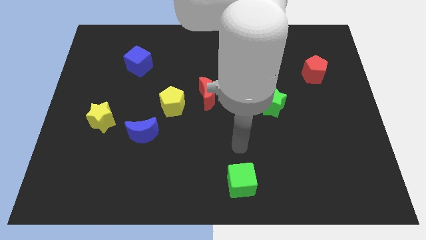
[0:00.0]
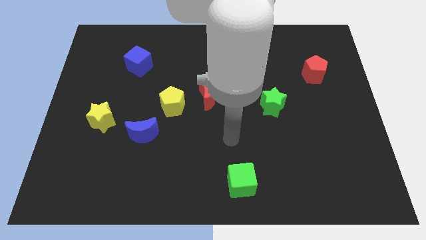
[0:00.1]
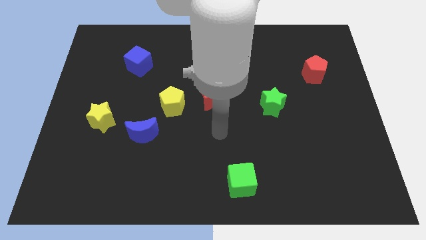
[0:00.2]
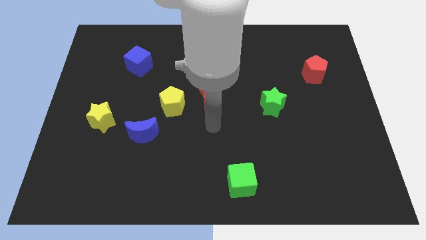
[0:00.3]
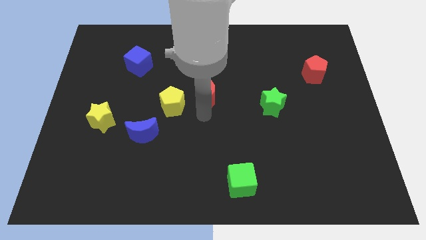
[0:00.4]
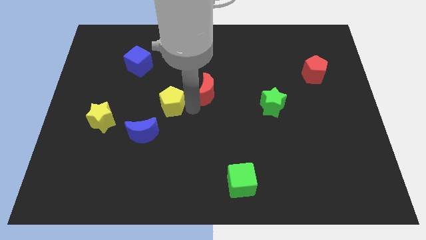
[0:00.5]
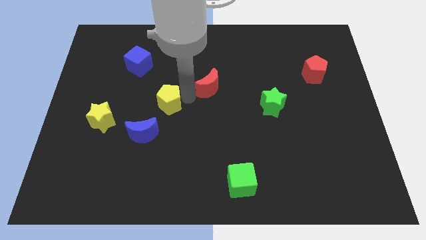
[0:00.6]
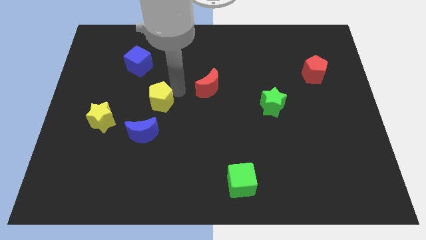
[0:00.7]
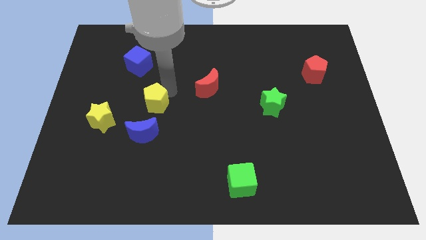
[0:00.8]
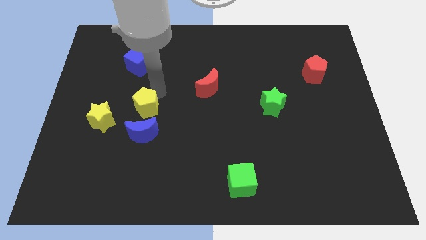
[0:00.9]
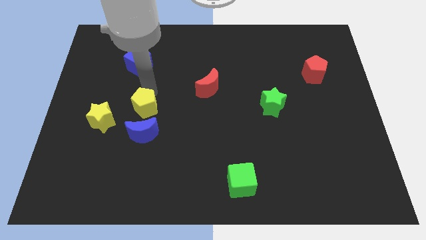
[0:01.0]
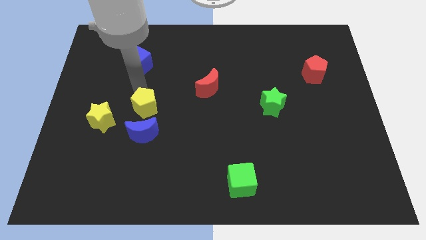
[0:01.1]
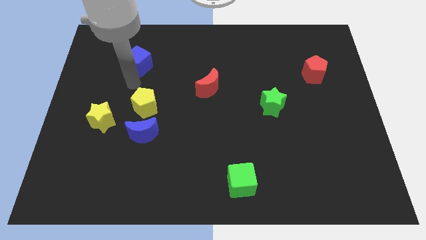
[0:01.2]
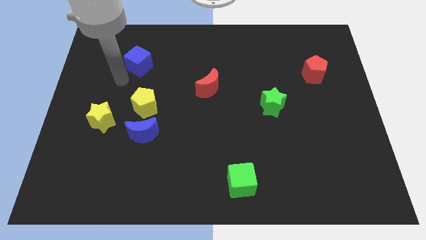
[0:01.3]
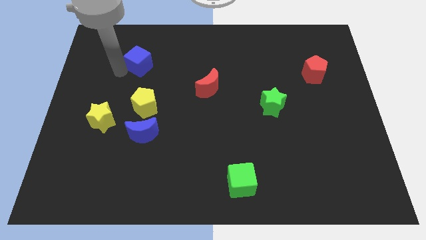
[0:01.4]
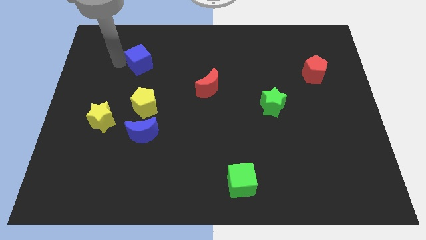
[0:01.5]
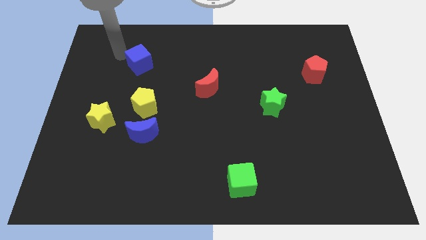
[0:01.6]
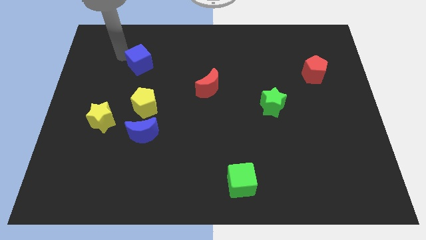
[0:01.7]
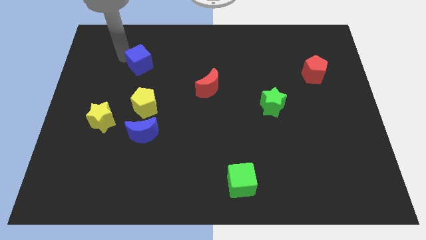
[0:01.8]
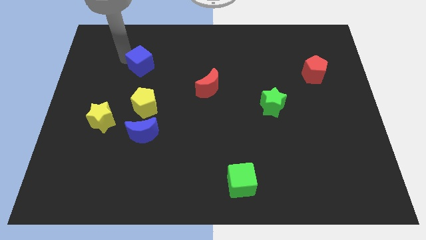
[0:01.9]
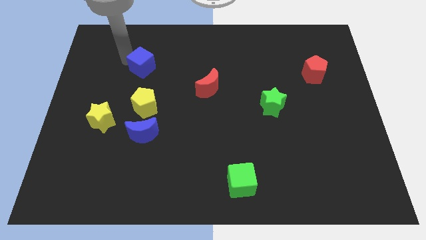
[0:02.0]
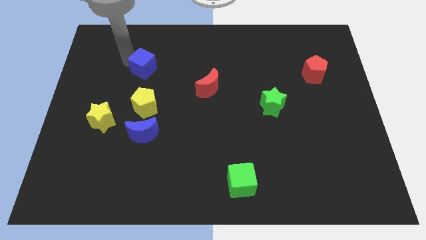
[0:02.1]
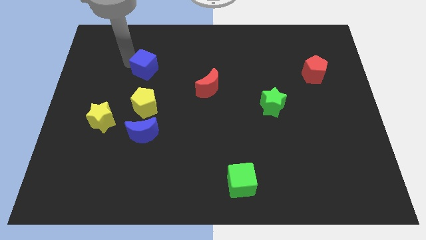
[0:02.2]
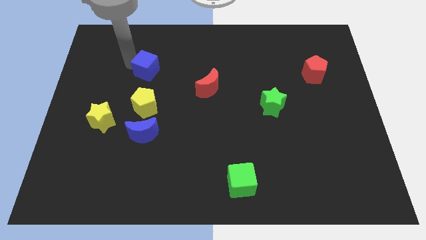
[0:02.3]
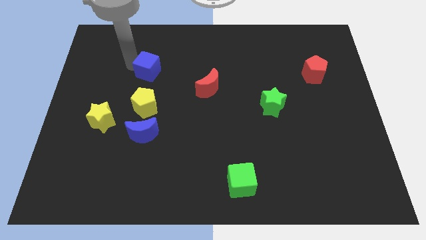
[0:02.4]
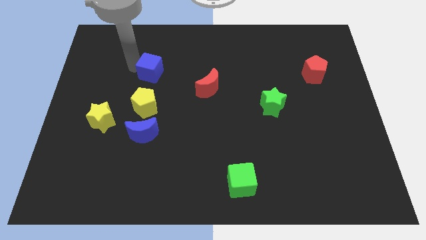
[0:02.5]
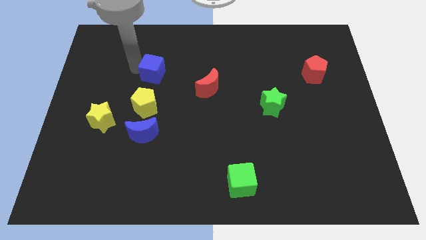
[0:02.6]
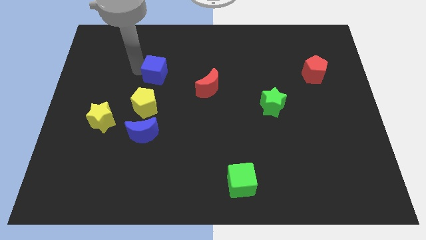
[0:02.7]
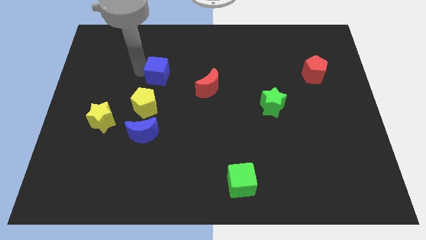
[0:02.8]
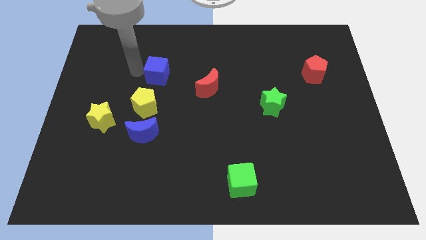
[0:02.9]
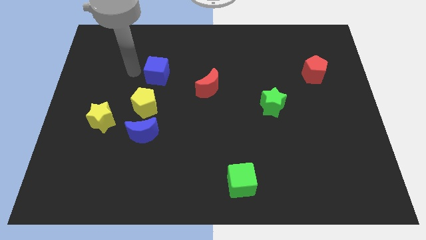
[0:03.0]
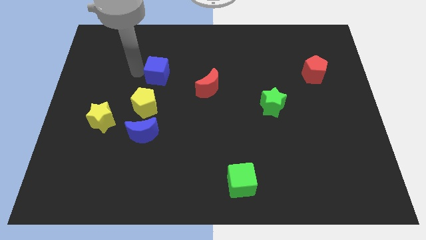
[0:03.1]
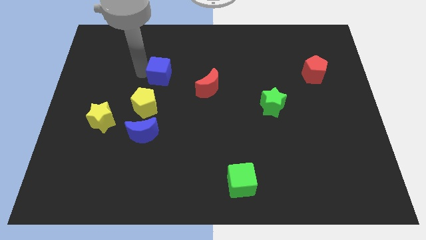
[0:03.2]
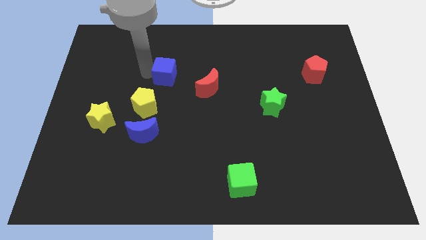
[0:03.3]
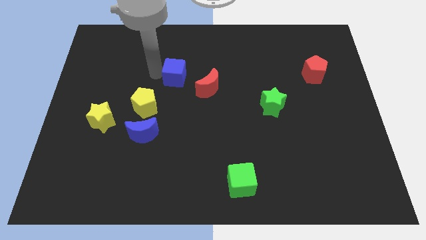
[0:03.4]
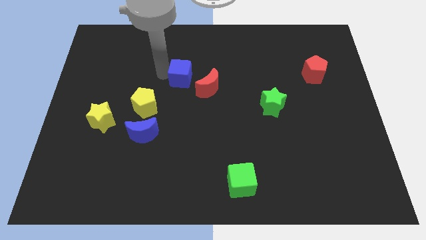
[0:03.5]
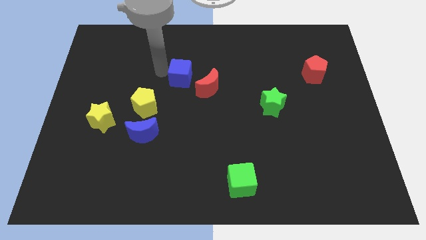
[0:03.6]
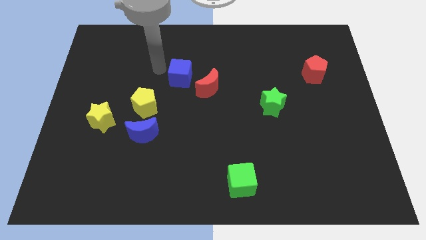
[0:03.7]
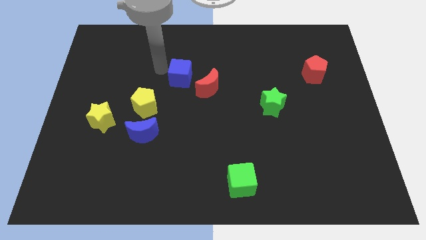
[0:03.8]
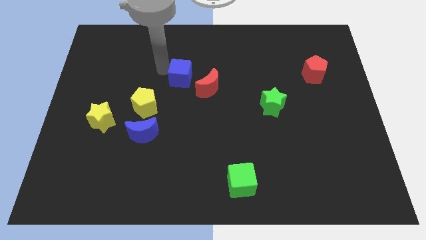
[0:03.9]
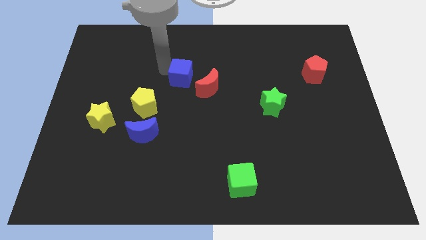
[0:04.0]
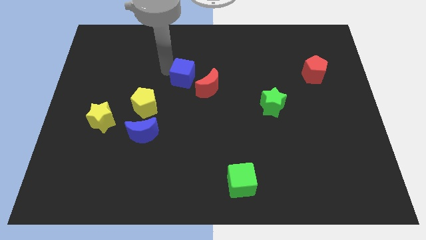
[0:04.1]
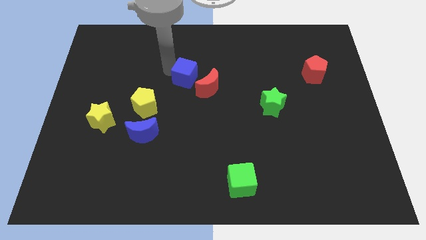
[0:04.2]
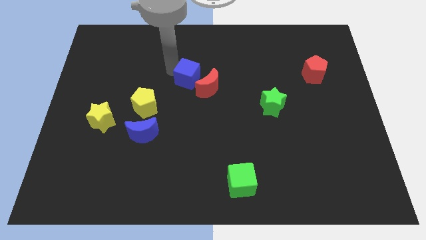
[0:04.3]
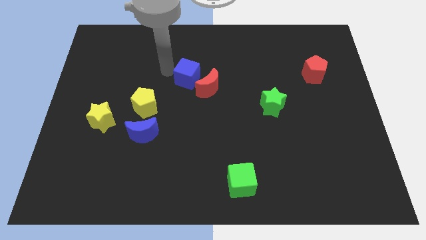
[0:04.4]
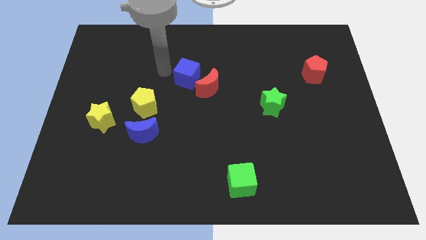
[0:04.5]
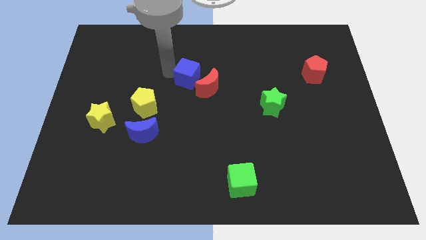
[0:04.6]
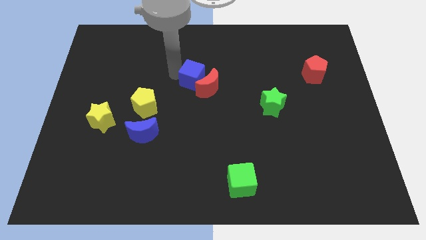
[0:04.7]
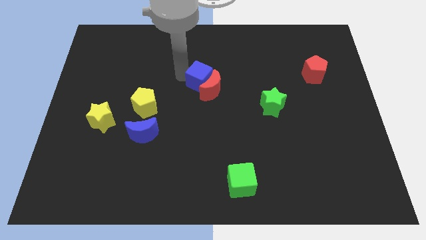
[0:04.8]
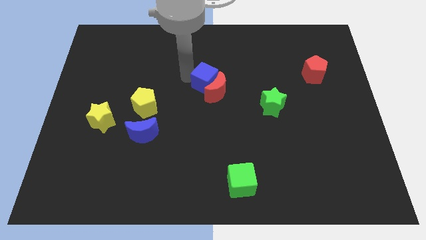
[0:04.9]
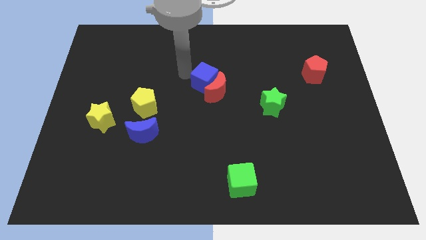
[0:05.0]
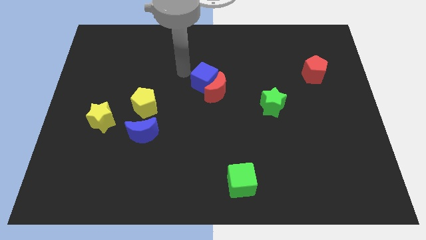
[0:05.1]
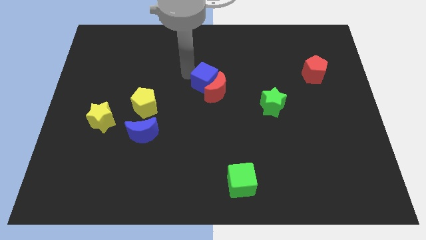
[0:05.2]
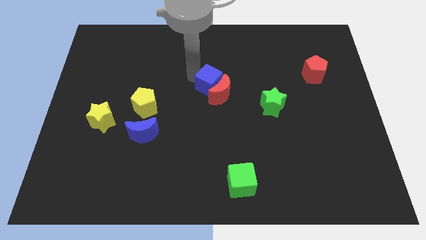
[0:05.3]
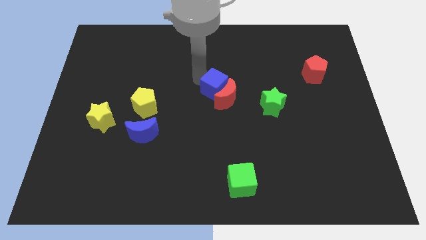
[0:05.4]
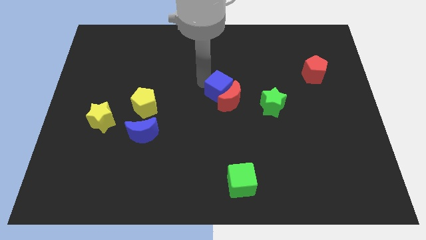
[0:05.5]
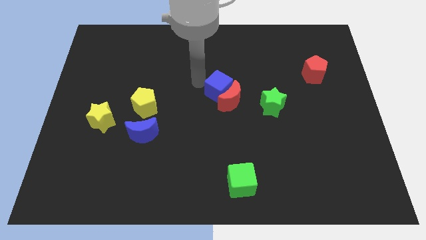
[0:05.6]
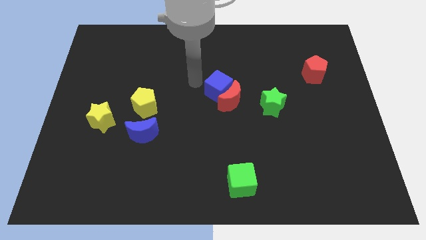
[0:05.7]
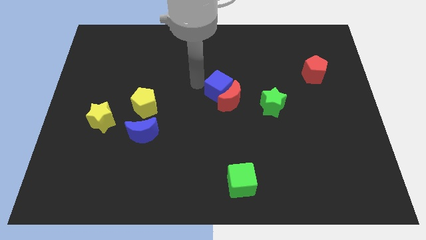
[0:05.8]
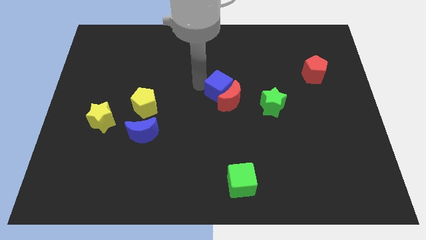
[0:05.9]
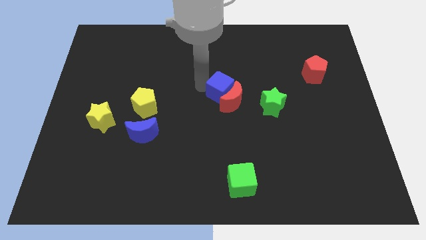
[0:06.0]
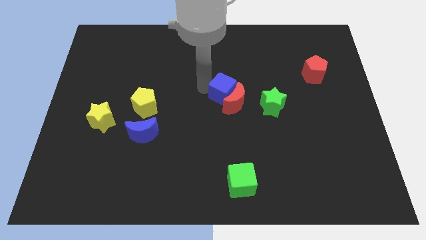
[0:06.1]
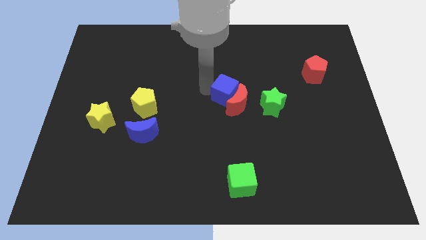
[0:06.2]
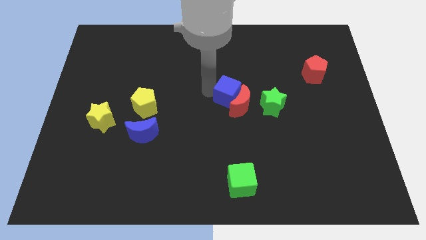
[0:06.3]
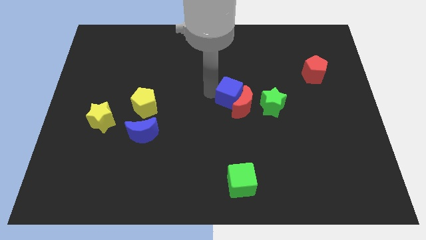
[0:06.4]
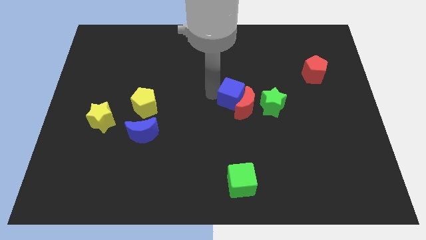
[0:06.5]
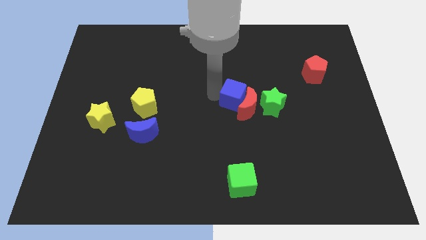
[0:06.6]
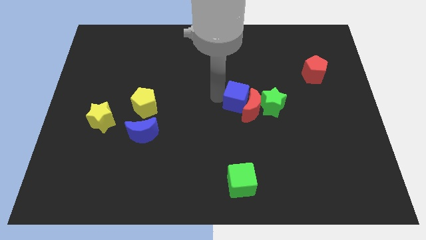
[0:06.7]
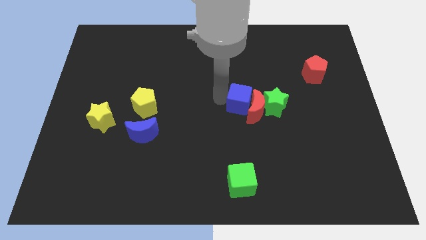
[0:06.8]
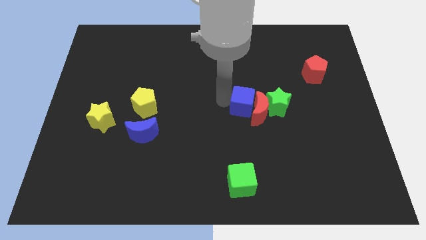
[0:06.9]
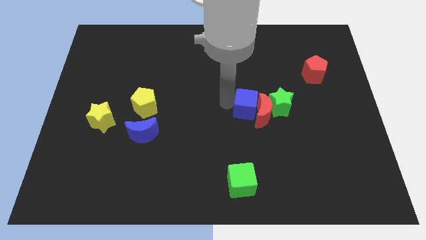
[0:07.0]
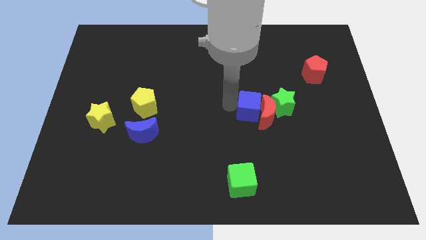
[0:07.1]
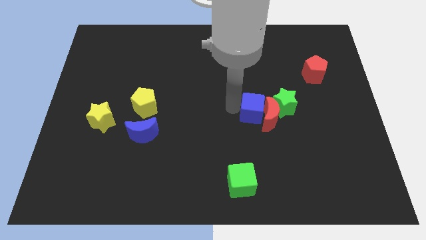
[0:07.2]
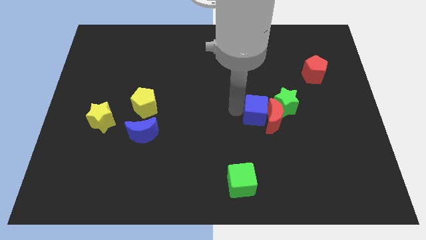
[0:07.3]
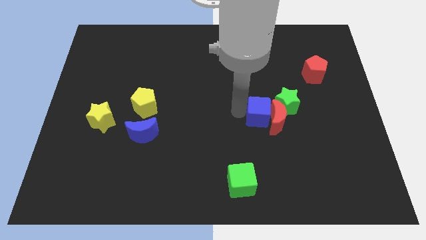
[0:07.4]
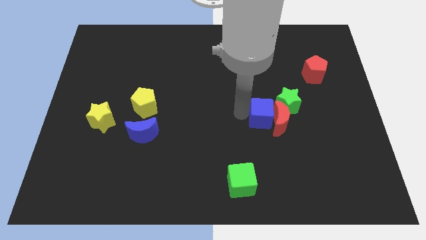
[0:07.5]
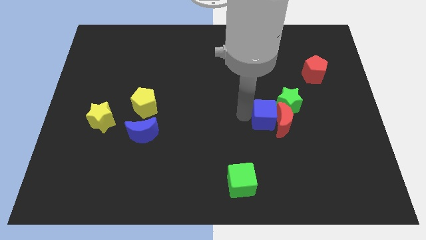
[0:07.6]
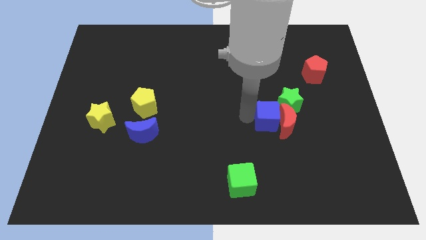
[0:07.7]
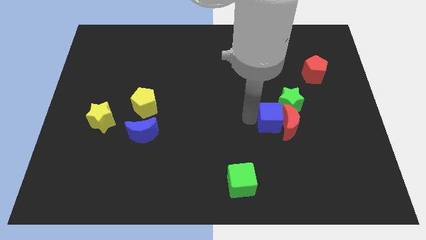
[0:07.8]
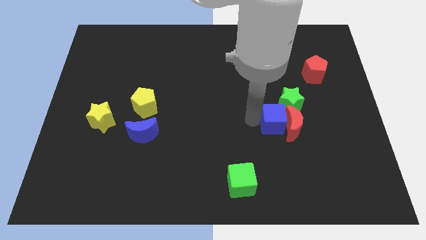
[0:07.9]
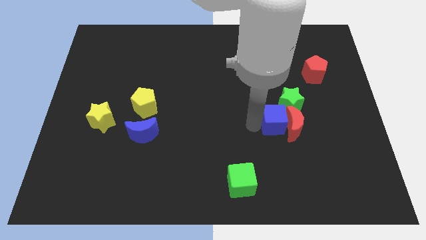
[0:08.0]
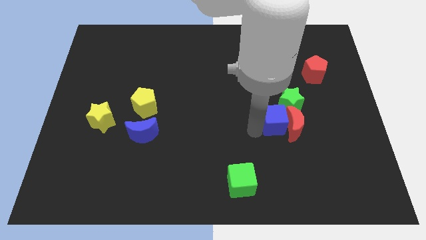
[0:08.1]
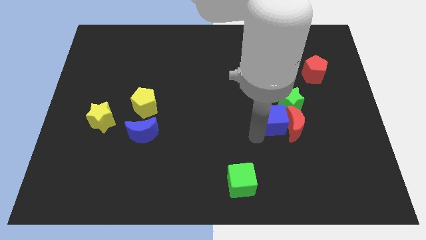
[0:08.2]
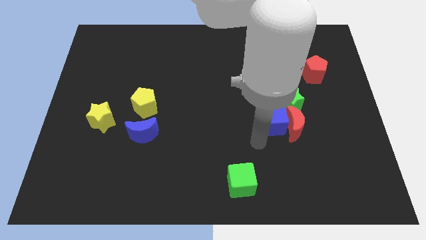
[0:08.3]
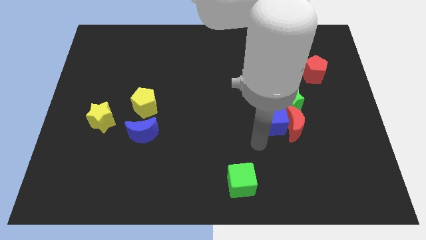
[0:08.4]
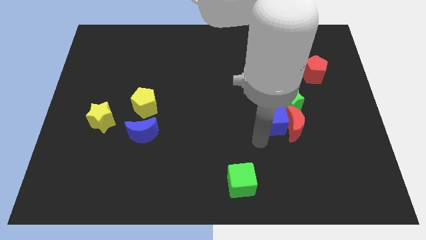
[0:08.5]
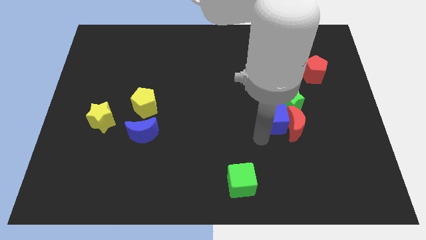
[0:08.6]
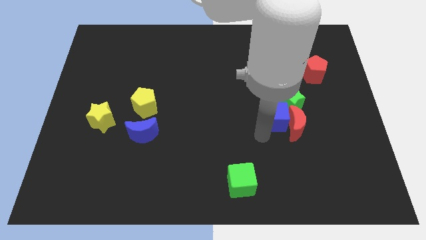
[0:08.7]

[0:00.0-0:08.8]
push the blue cube close to the green star
